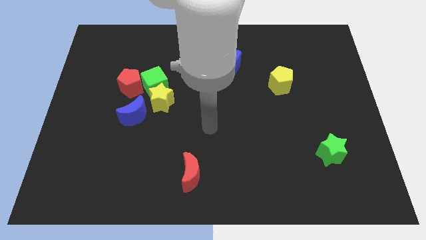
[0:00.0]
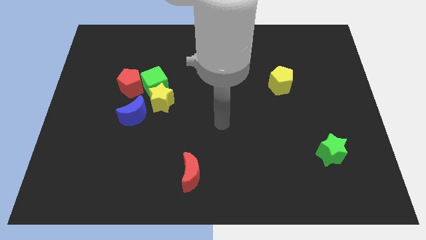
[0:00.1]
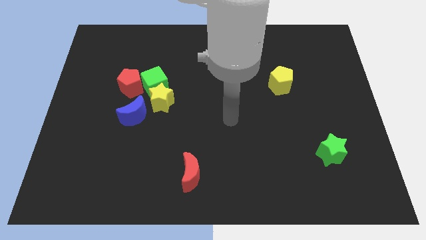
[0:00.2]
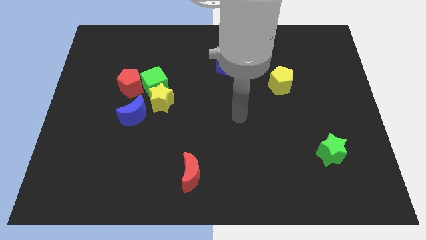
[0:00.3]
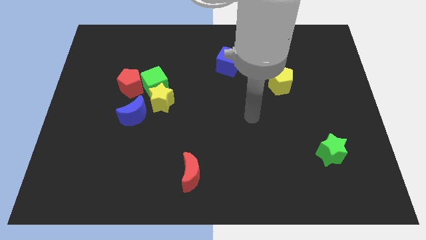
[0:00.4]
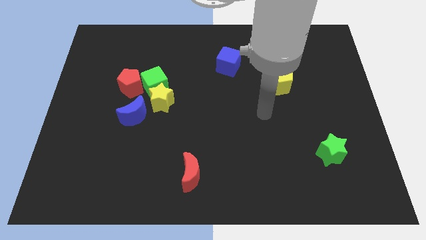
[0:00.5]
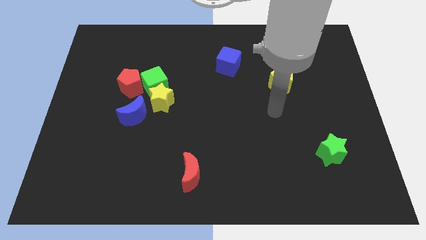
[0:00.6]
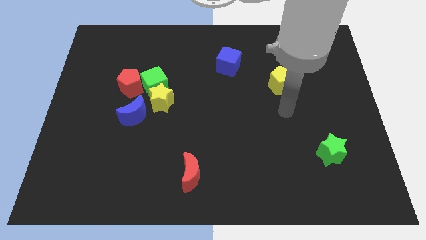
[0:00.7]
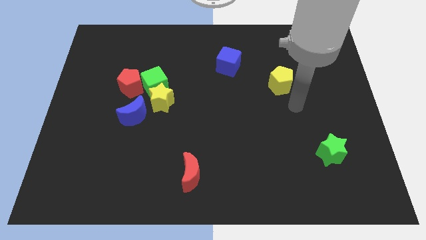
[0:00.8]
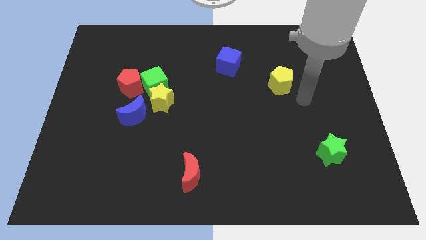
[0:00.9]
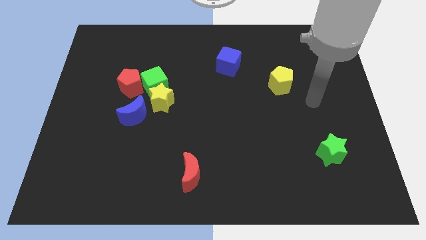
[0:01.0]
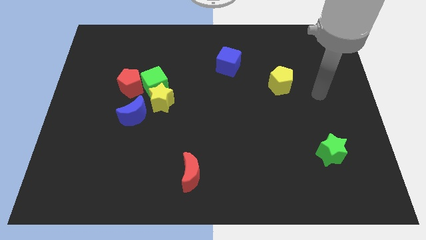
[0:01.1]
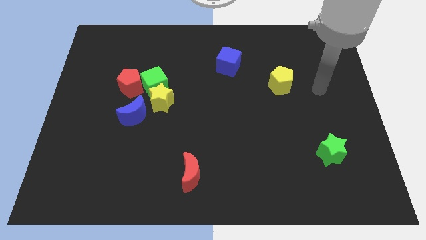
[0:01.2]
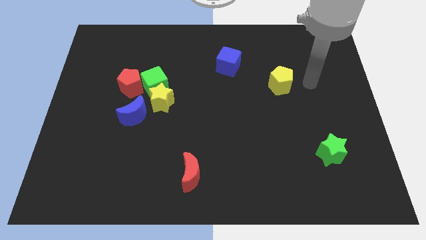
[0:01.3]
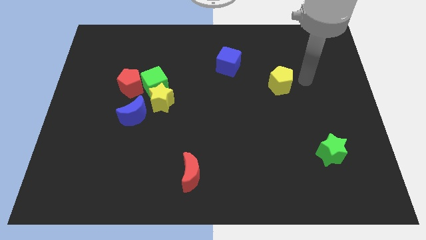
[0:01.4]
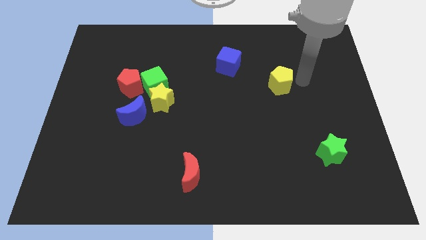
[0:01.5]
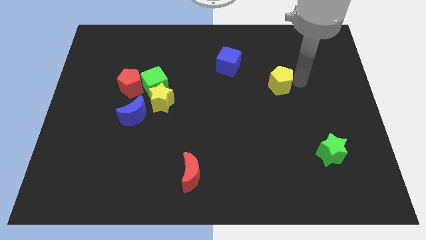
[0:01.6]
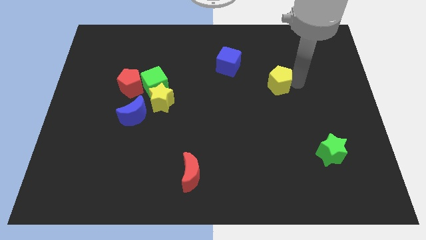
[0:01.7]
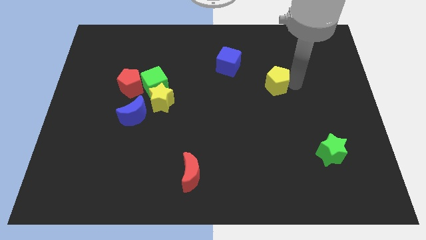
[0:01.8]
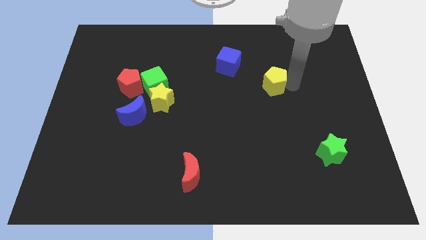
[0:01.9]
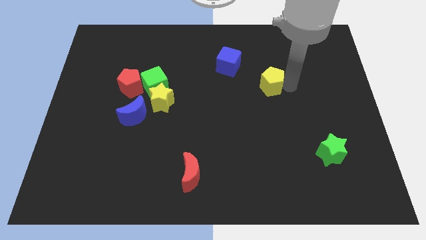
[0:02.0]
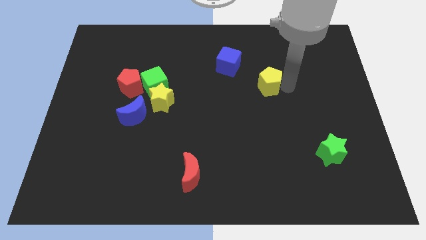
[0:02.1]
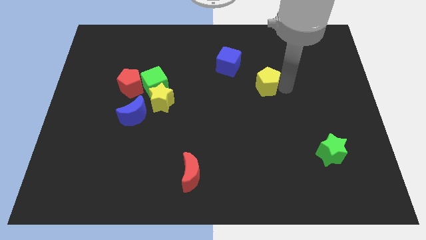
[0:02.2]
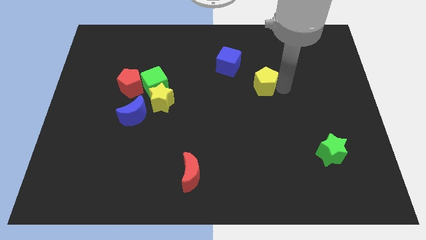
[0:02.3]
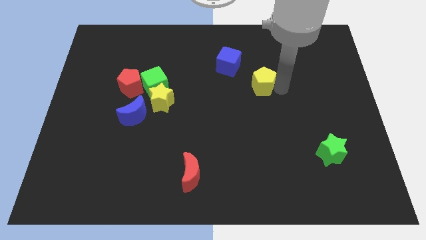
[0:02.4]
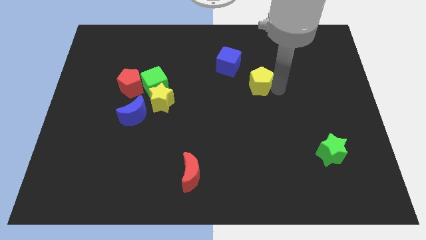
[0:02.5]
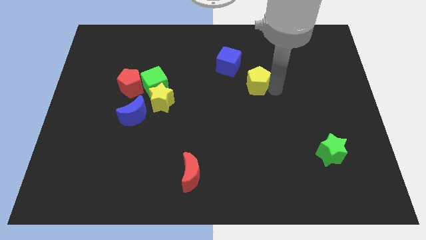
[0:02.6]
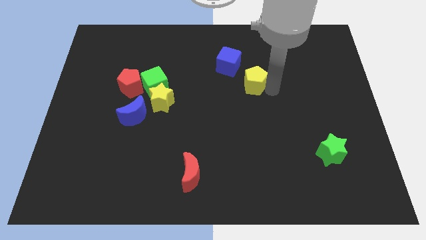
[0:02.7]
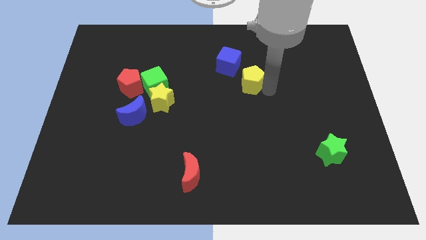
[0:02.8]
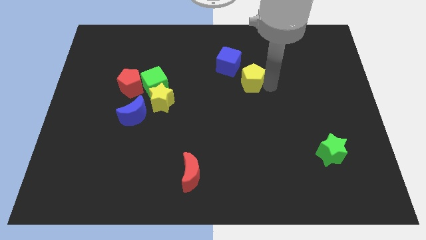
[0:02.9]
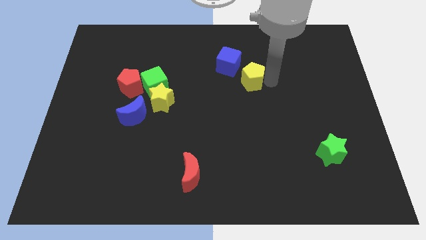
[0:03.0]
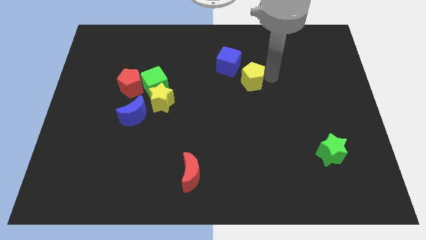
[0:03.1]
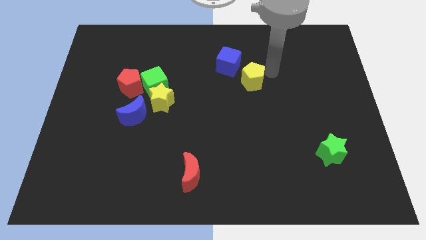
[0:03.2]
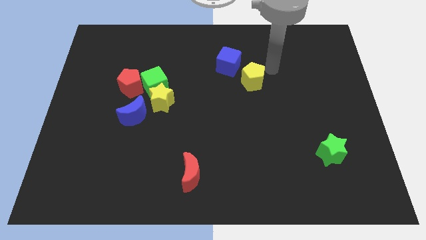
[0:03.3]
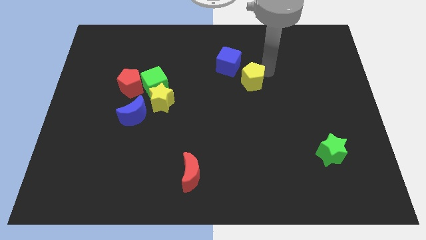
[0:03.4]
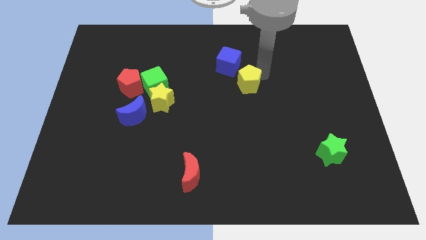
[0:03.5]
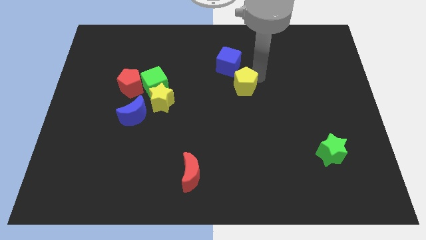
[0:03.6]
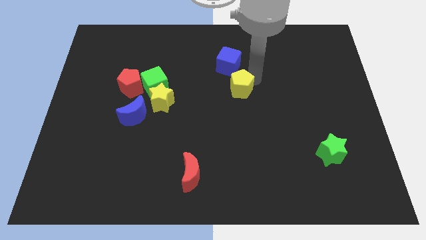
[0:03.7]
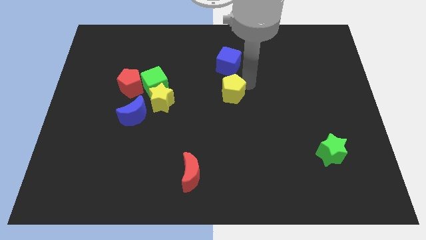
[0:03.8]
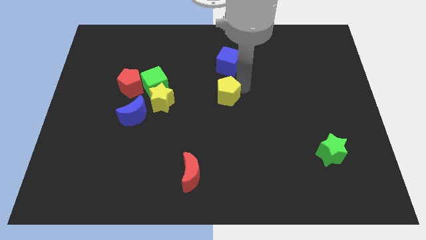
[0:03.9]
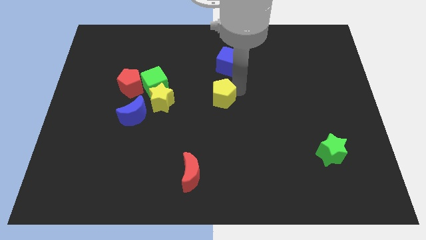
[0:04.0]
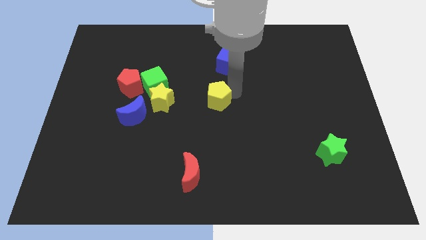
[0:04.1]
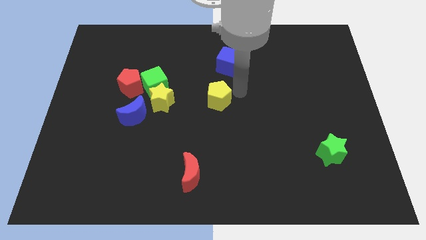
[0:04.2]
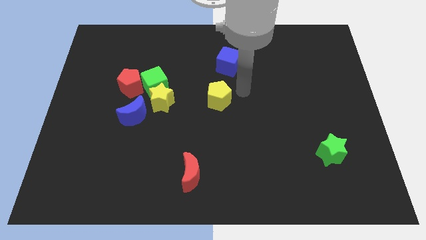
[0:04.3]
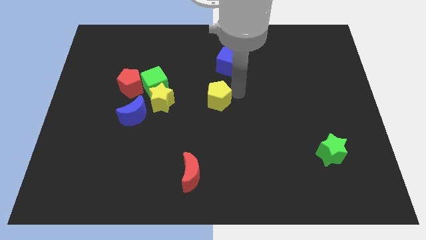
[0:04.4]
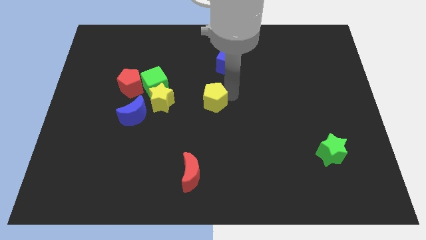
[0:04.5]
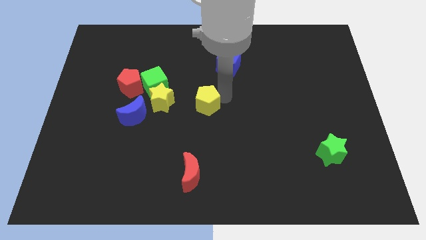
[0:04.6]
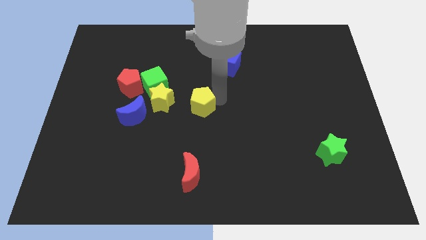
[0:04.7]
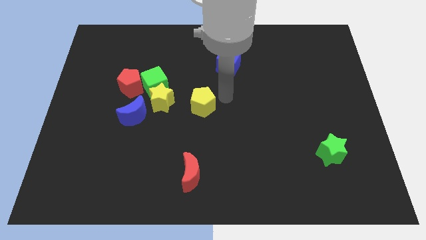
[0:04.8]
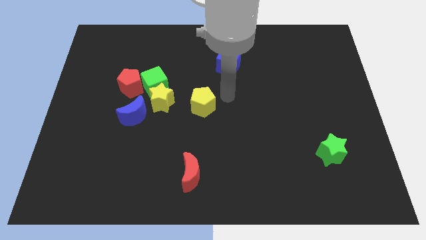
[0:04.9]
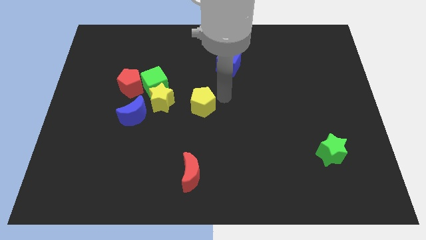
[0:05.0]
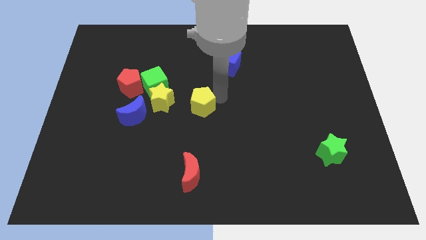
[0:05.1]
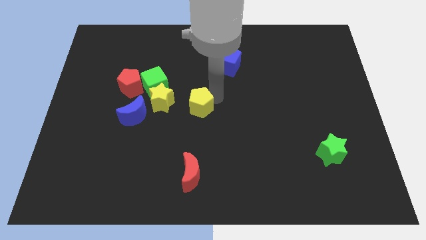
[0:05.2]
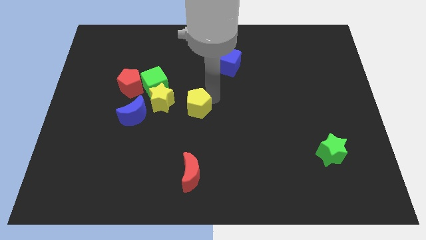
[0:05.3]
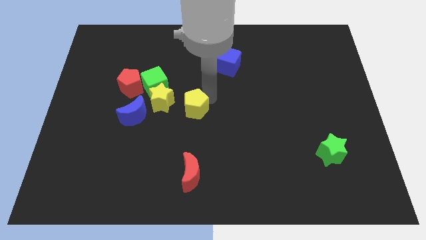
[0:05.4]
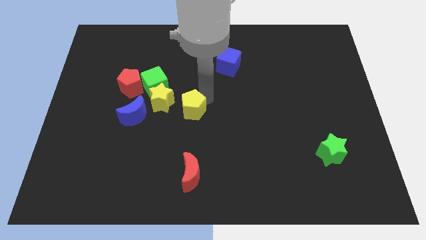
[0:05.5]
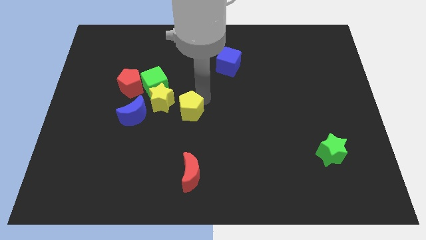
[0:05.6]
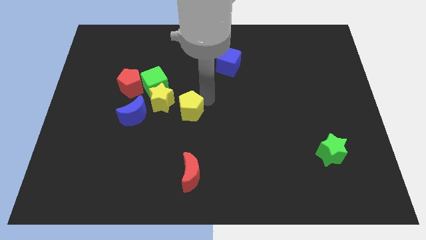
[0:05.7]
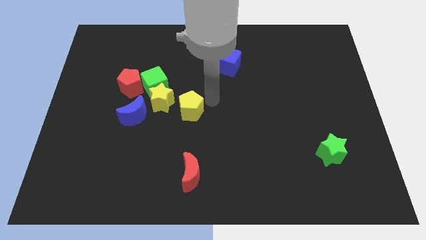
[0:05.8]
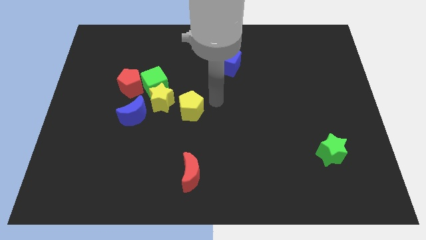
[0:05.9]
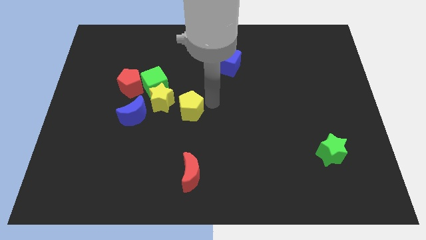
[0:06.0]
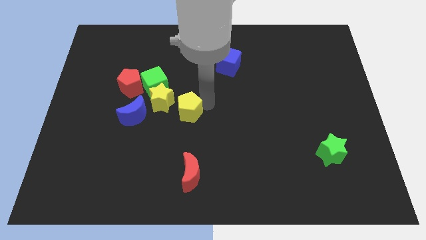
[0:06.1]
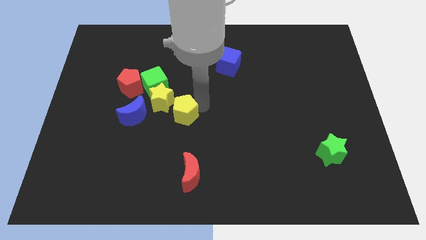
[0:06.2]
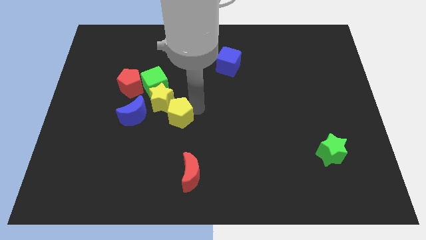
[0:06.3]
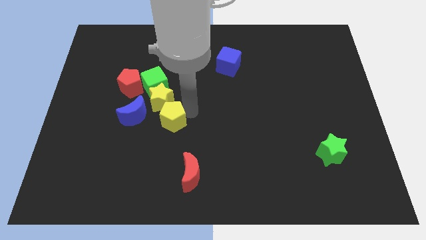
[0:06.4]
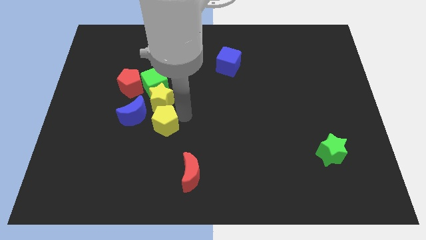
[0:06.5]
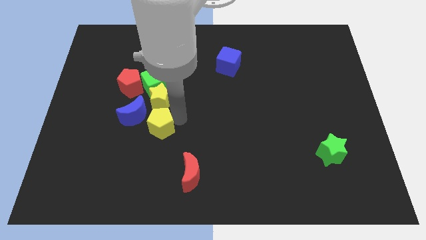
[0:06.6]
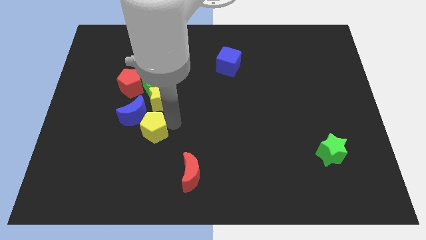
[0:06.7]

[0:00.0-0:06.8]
put the yellow pentagon close to the blue moon
